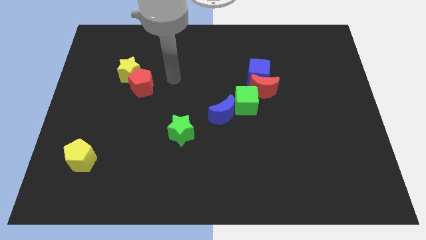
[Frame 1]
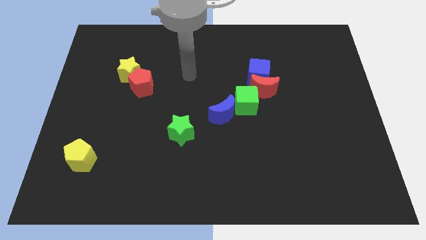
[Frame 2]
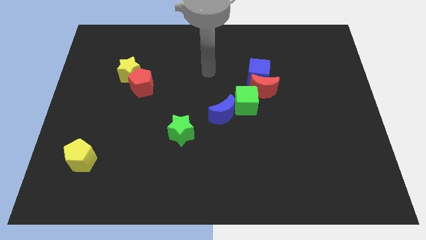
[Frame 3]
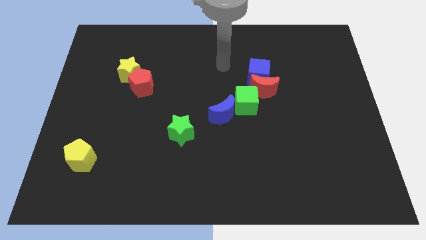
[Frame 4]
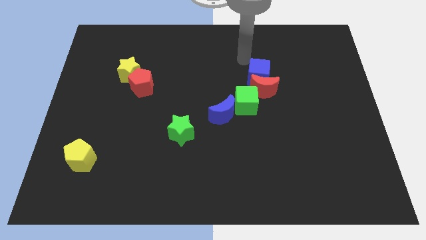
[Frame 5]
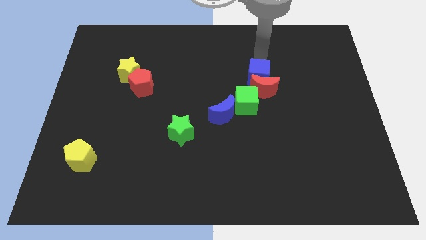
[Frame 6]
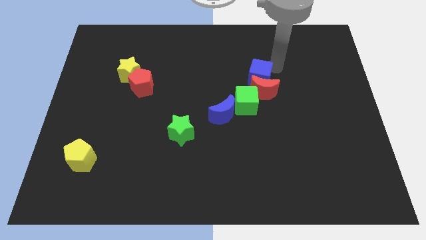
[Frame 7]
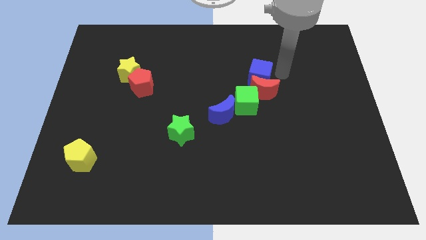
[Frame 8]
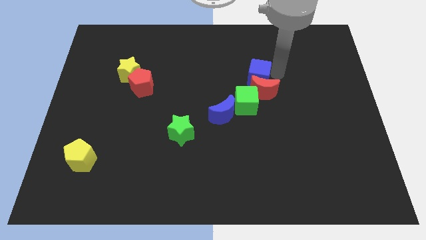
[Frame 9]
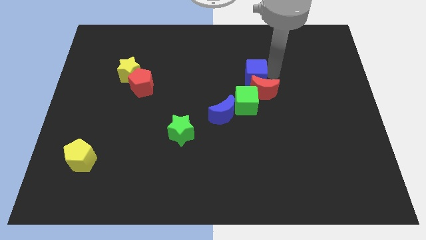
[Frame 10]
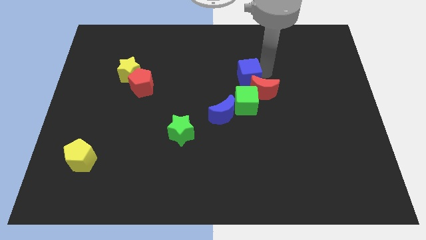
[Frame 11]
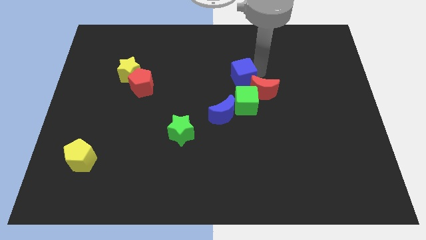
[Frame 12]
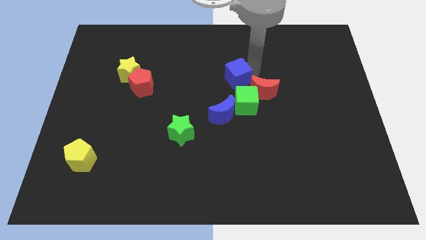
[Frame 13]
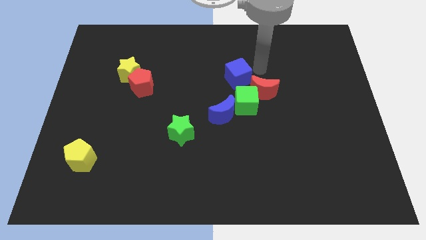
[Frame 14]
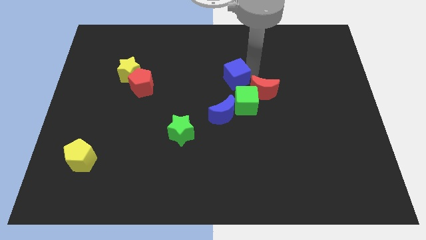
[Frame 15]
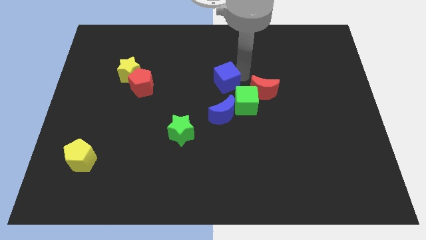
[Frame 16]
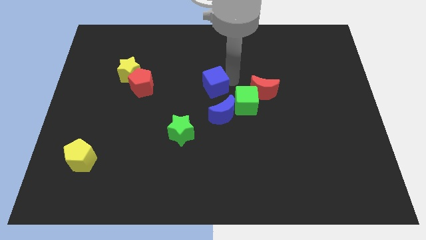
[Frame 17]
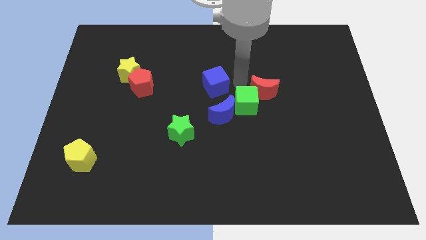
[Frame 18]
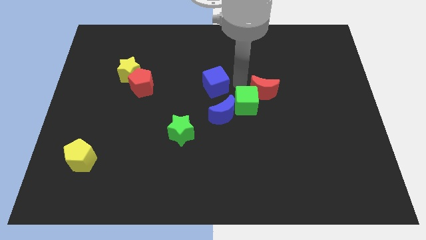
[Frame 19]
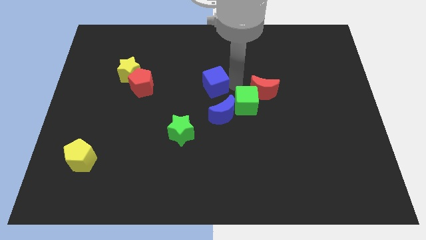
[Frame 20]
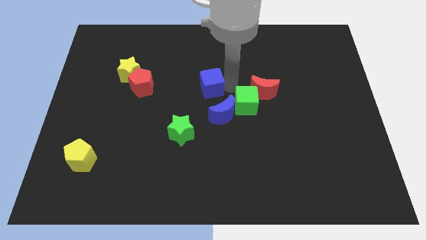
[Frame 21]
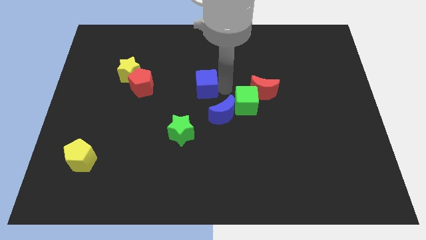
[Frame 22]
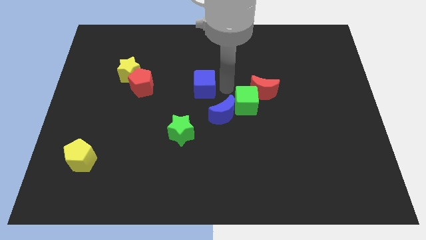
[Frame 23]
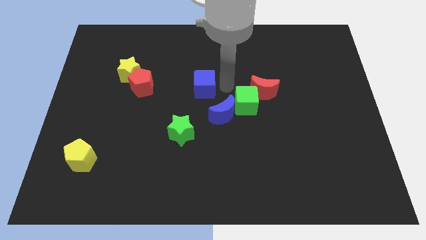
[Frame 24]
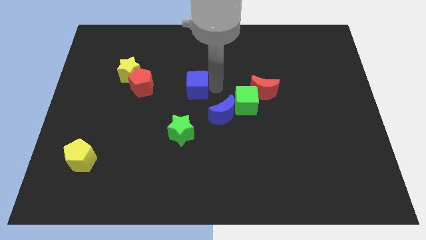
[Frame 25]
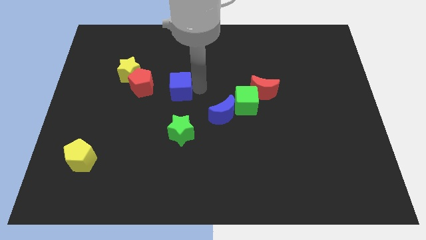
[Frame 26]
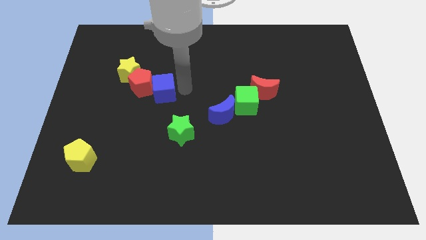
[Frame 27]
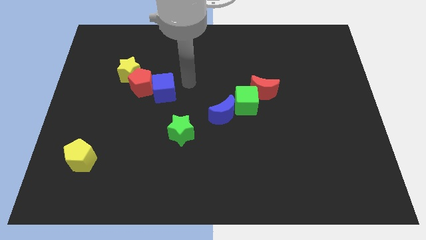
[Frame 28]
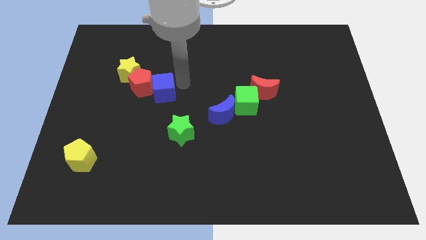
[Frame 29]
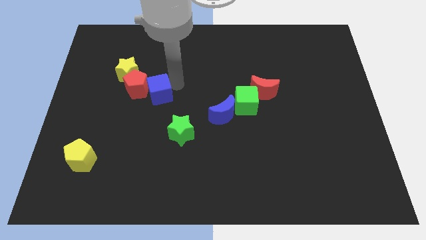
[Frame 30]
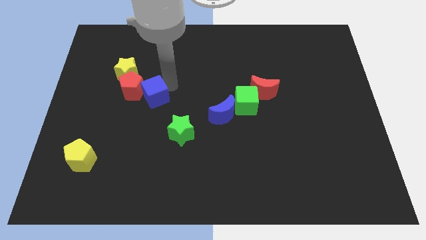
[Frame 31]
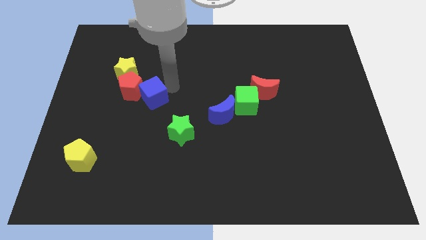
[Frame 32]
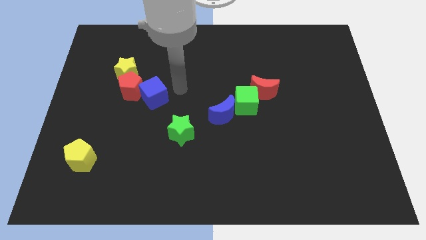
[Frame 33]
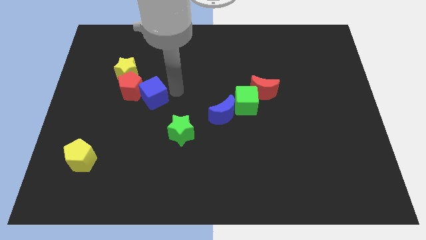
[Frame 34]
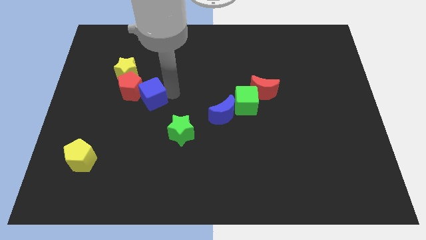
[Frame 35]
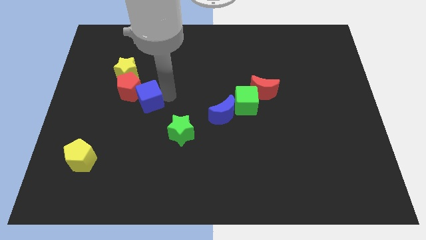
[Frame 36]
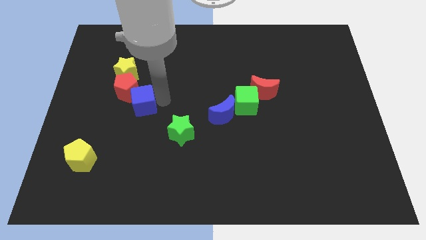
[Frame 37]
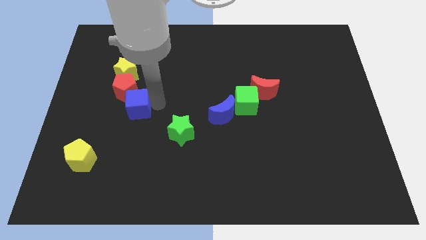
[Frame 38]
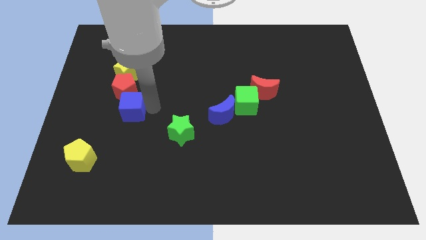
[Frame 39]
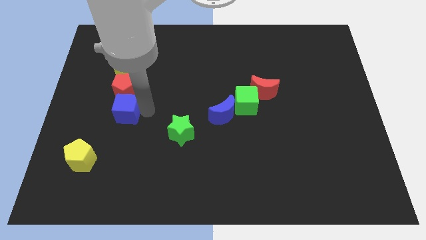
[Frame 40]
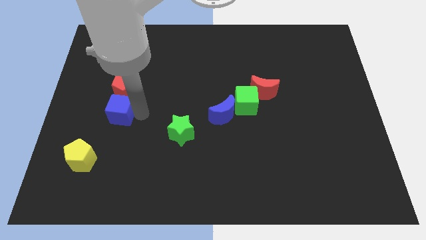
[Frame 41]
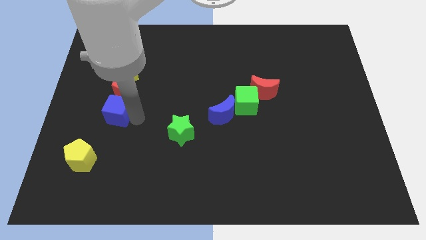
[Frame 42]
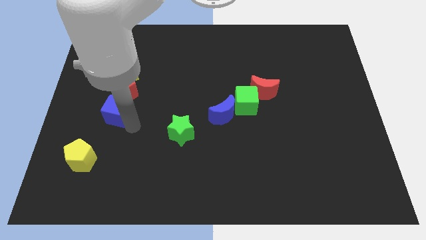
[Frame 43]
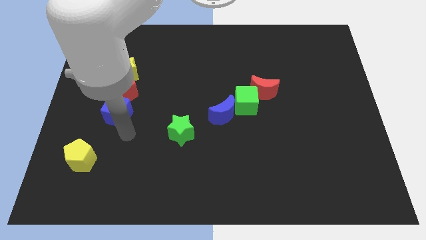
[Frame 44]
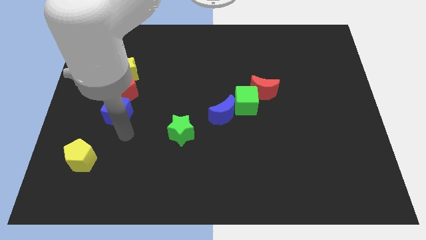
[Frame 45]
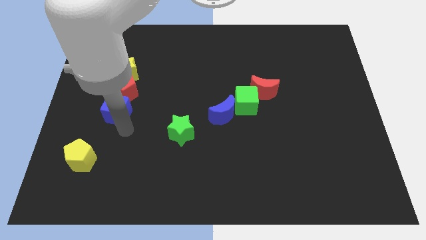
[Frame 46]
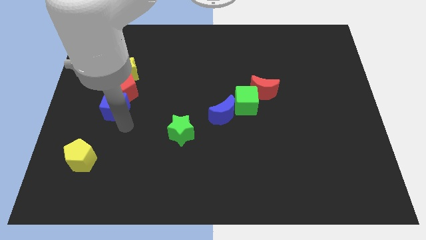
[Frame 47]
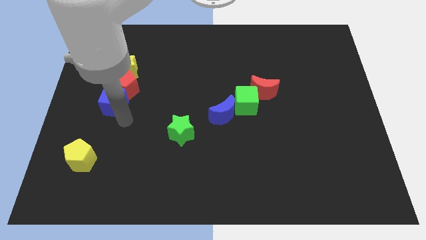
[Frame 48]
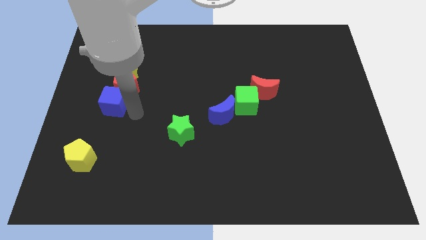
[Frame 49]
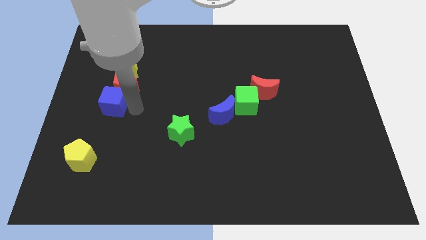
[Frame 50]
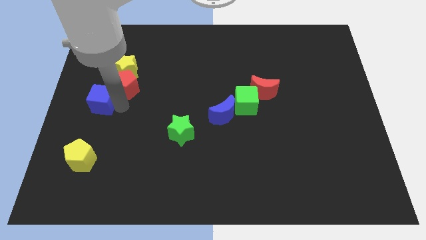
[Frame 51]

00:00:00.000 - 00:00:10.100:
push the blue cube to the center left

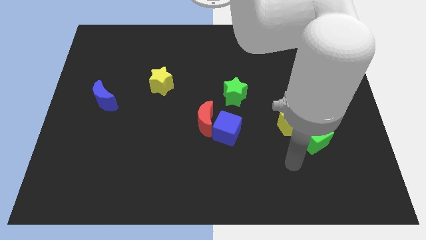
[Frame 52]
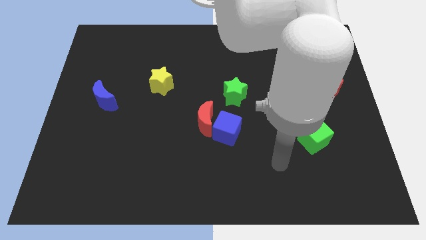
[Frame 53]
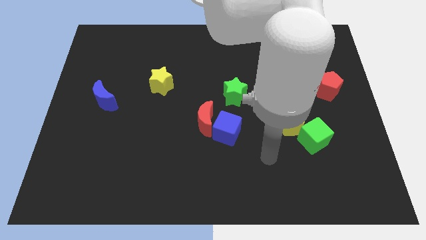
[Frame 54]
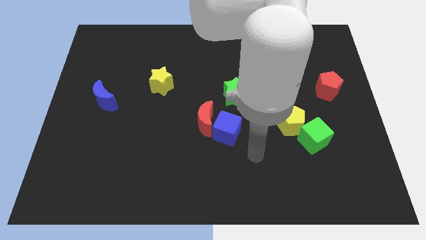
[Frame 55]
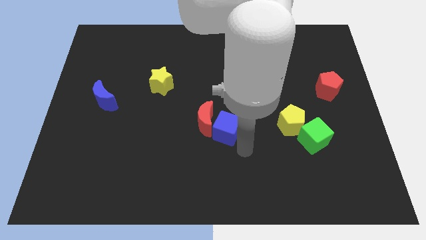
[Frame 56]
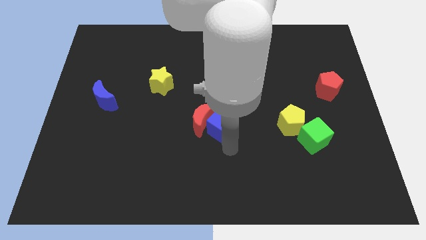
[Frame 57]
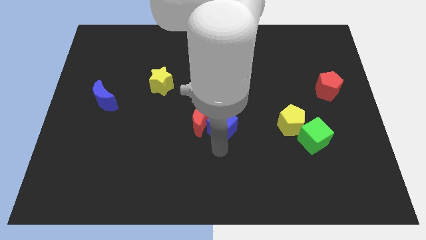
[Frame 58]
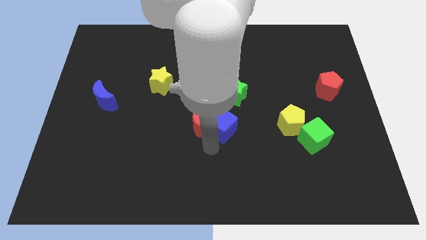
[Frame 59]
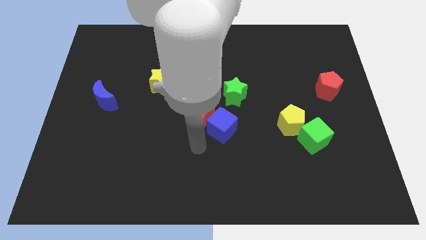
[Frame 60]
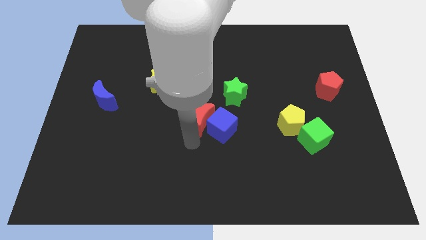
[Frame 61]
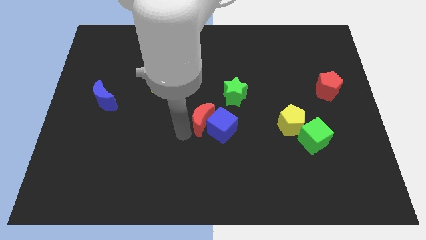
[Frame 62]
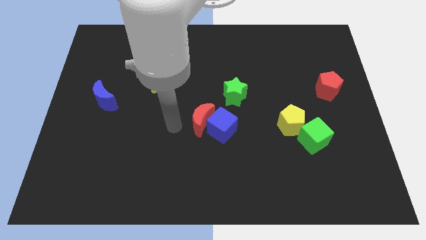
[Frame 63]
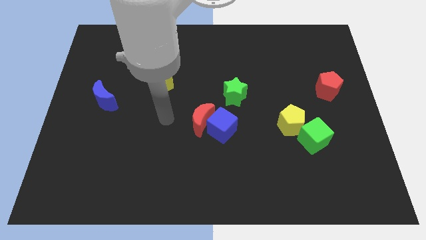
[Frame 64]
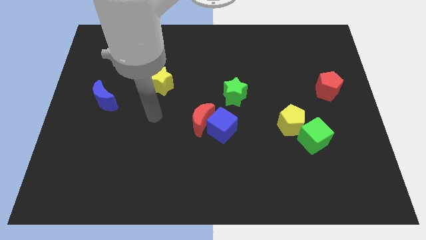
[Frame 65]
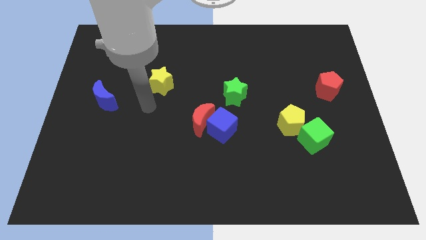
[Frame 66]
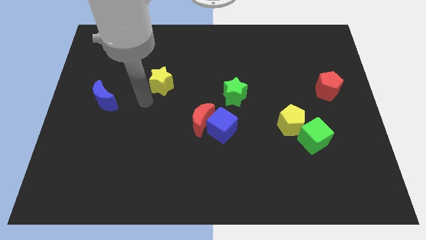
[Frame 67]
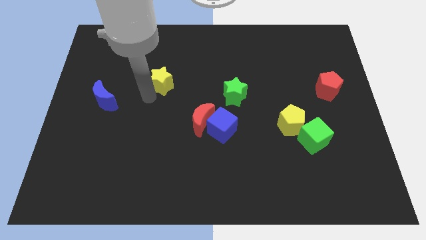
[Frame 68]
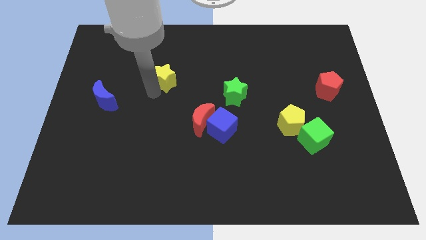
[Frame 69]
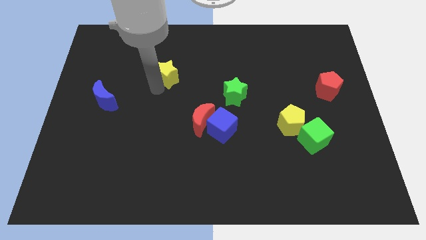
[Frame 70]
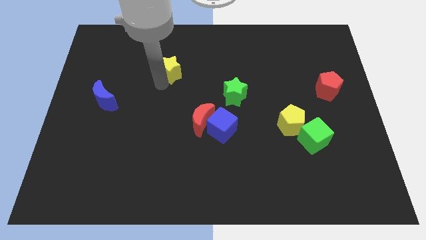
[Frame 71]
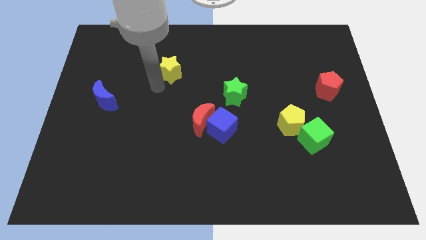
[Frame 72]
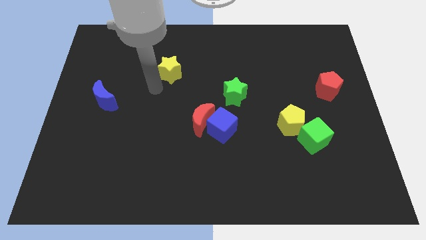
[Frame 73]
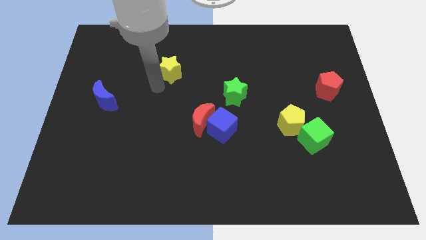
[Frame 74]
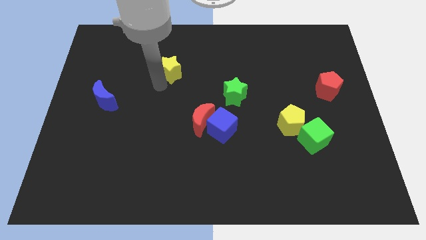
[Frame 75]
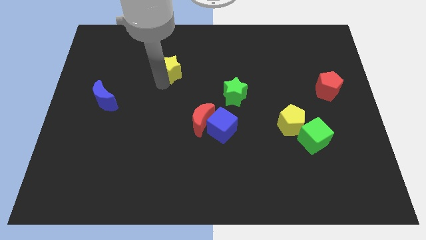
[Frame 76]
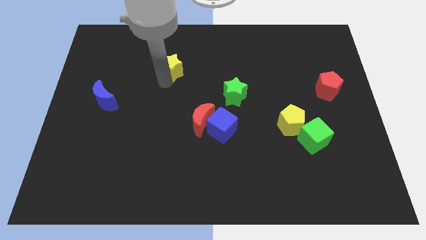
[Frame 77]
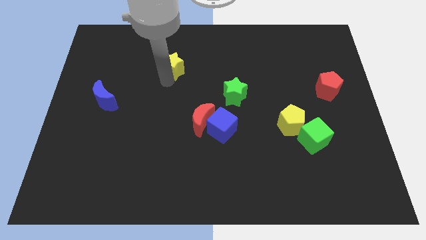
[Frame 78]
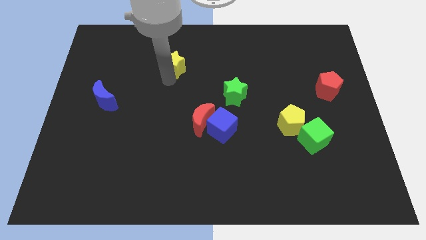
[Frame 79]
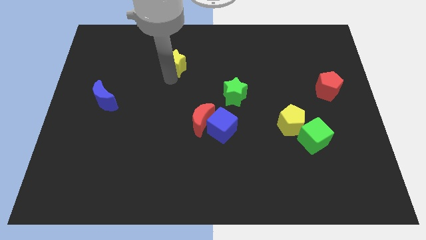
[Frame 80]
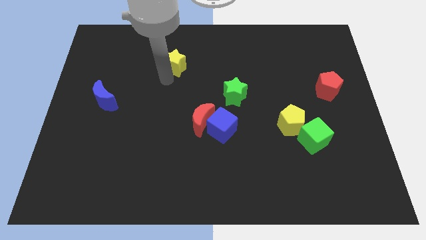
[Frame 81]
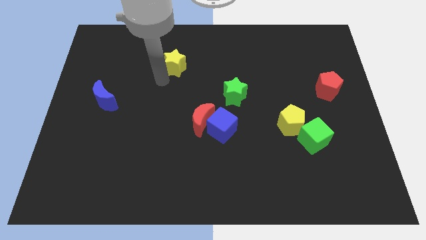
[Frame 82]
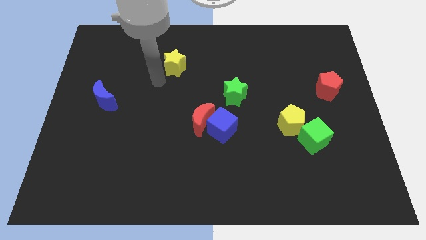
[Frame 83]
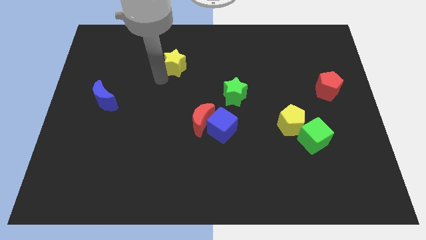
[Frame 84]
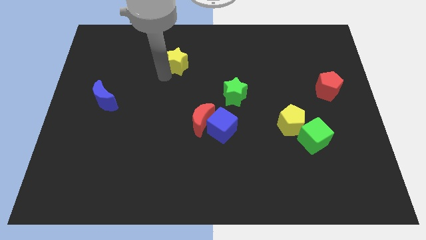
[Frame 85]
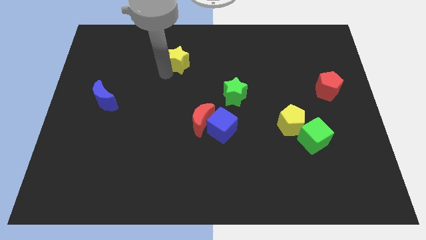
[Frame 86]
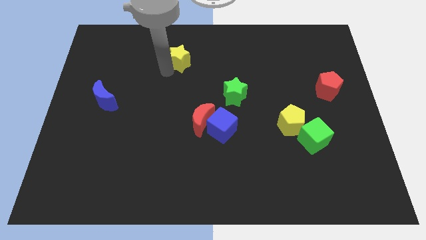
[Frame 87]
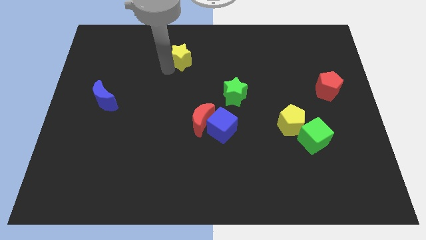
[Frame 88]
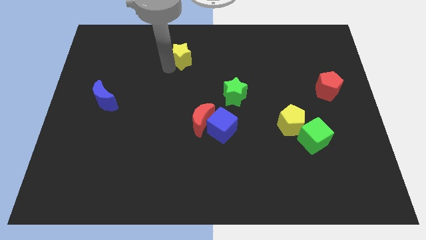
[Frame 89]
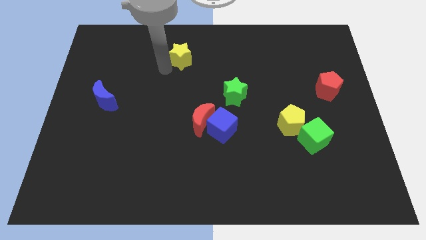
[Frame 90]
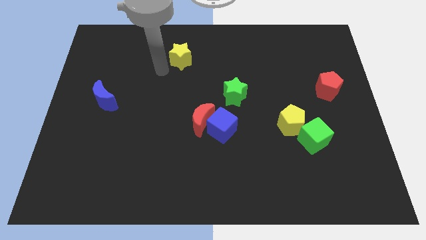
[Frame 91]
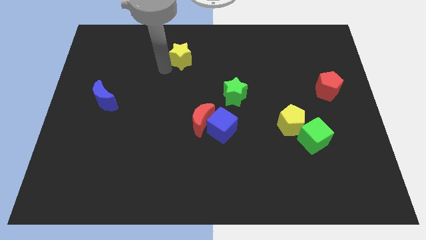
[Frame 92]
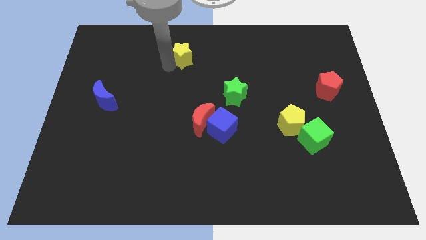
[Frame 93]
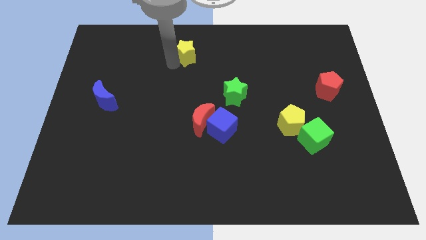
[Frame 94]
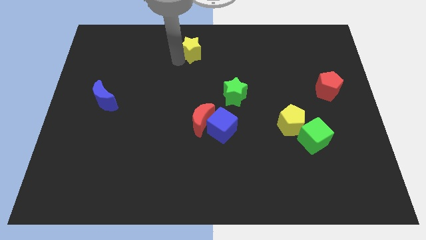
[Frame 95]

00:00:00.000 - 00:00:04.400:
push the yellow star to the top
